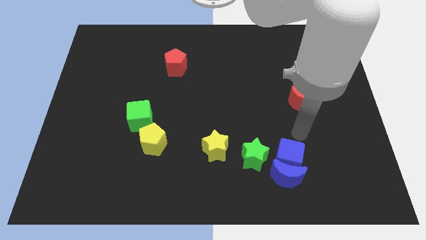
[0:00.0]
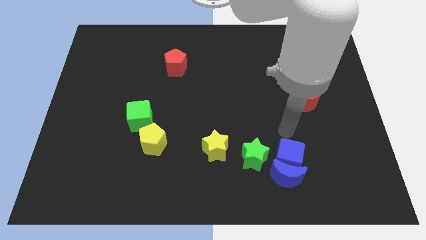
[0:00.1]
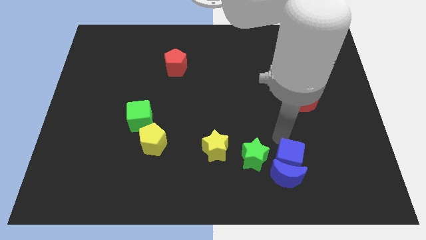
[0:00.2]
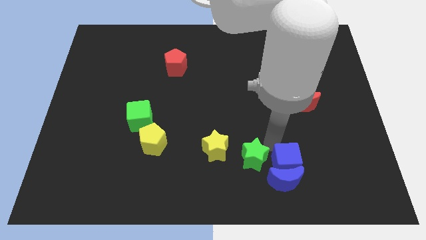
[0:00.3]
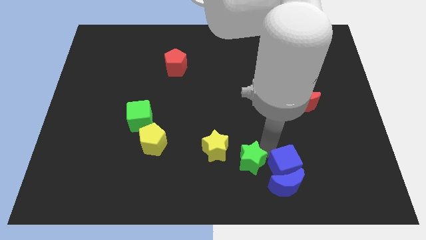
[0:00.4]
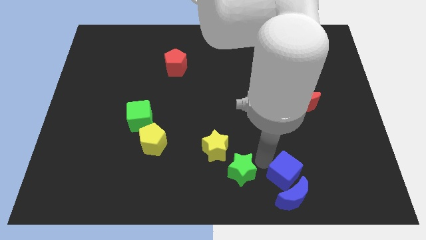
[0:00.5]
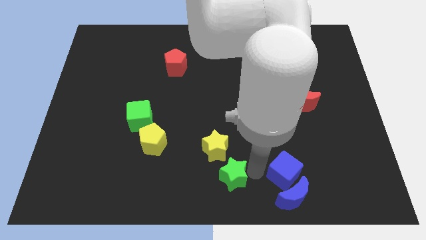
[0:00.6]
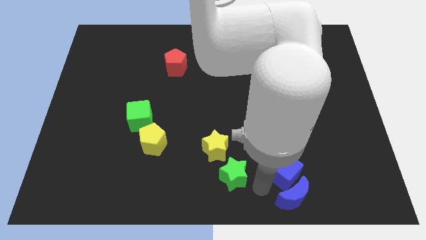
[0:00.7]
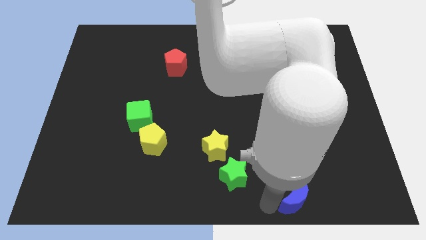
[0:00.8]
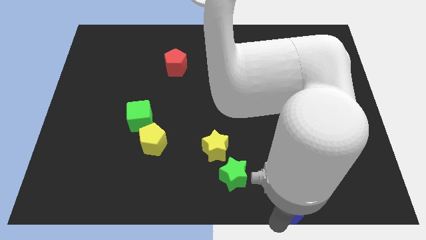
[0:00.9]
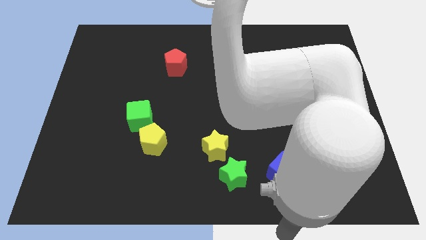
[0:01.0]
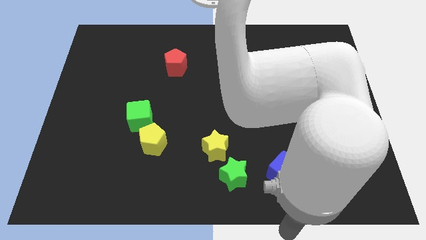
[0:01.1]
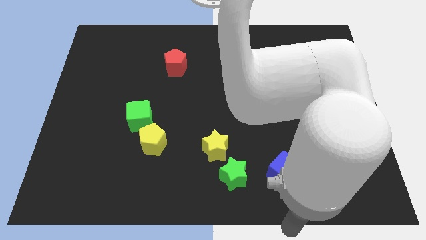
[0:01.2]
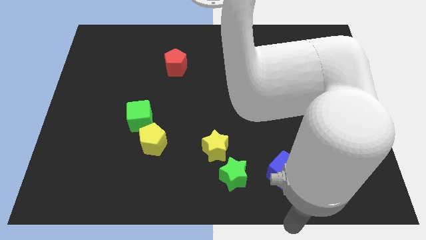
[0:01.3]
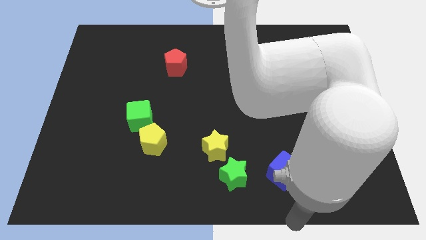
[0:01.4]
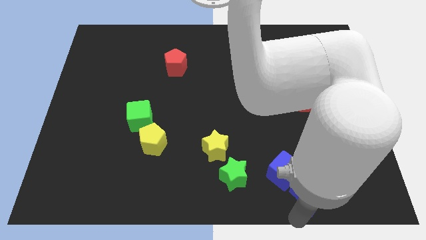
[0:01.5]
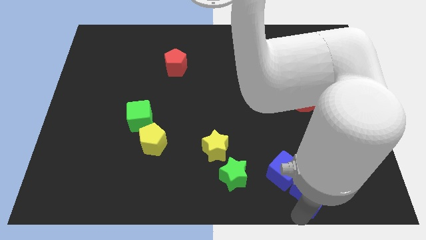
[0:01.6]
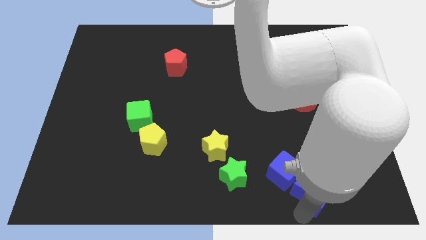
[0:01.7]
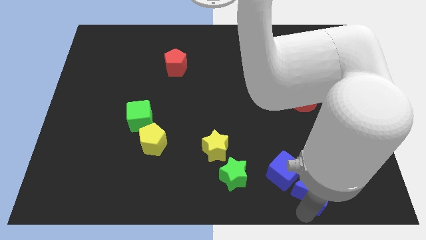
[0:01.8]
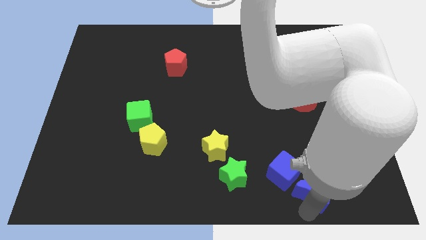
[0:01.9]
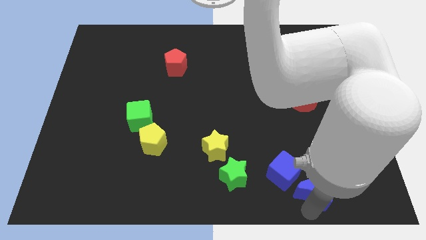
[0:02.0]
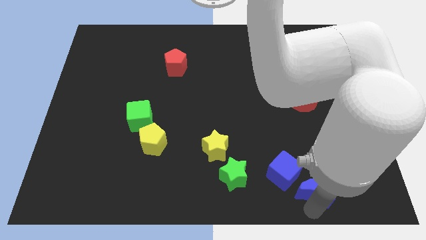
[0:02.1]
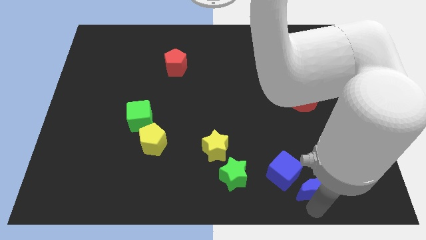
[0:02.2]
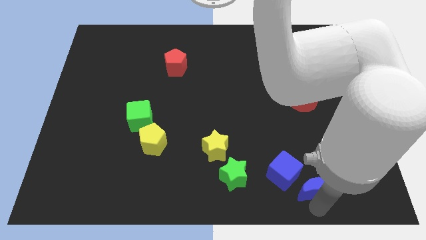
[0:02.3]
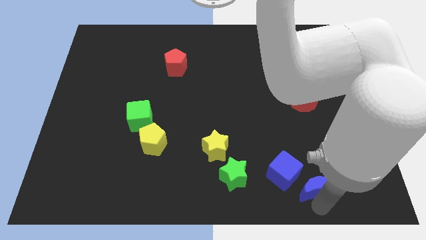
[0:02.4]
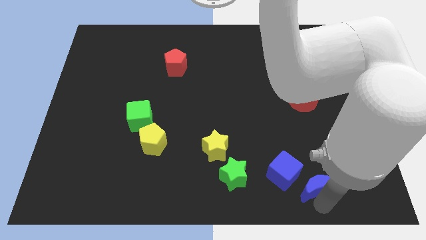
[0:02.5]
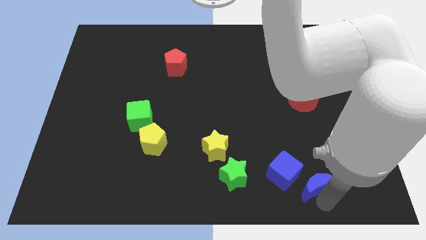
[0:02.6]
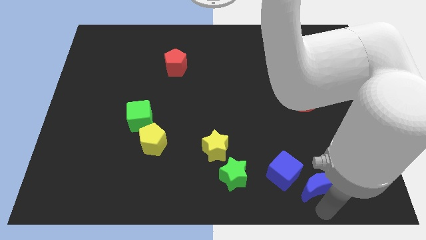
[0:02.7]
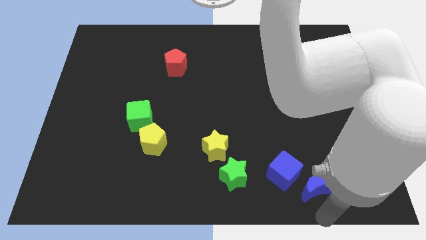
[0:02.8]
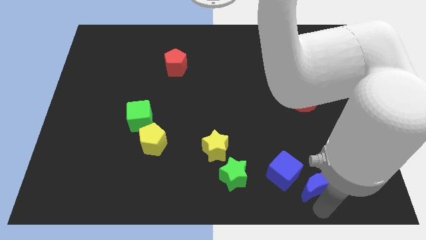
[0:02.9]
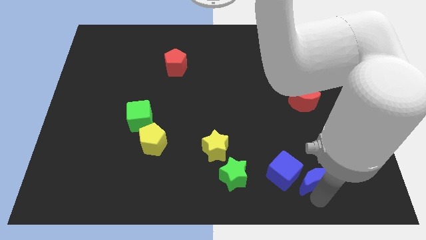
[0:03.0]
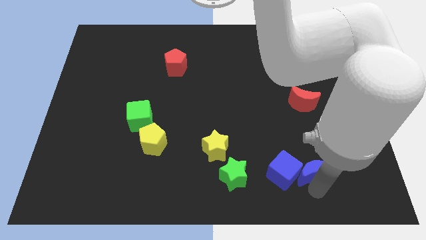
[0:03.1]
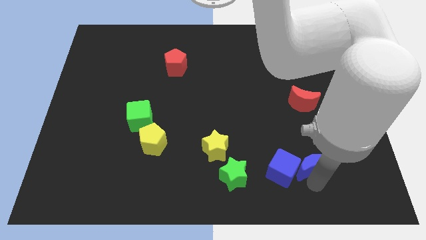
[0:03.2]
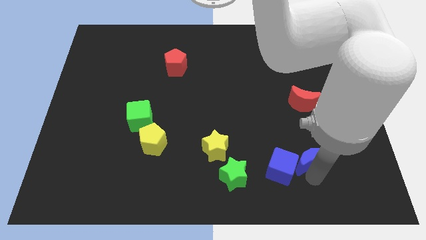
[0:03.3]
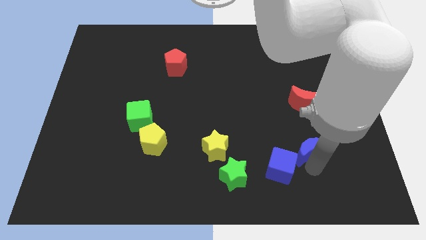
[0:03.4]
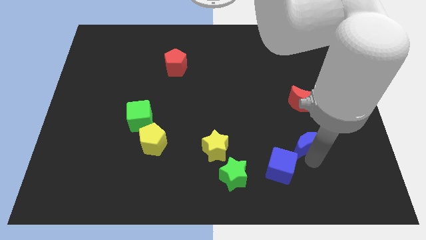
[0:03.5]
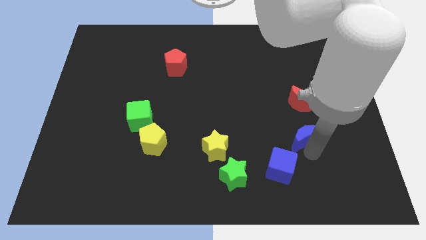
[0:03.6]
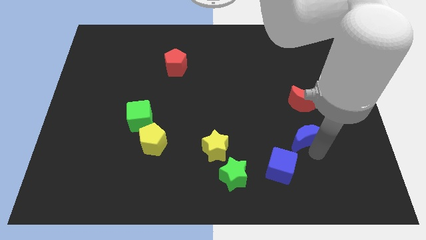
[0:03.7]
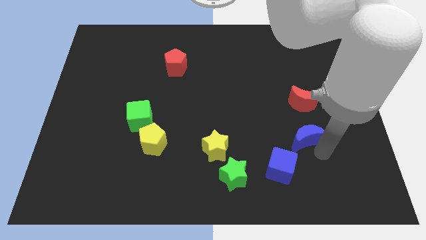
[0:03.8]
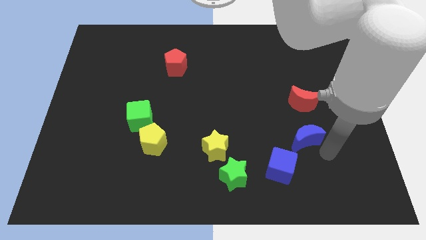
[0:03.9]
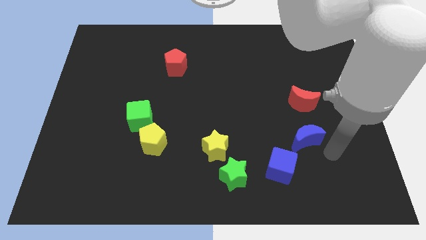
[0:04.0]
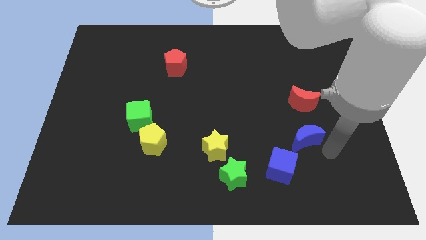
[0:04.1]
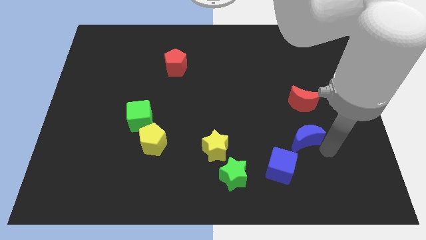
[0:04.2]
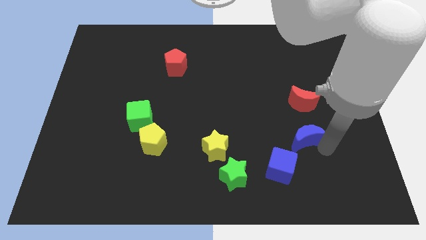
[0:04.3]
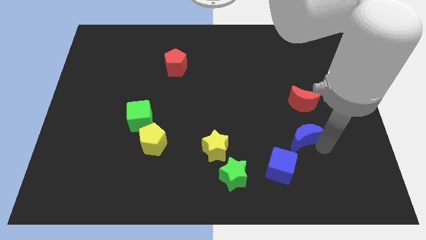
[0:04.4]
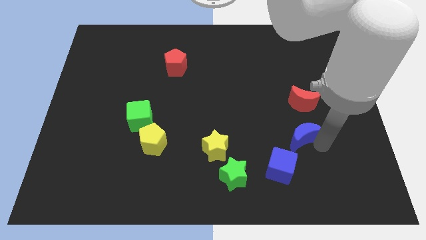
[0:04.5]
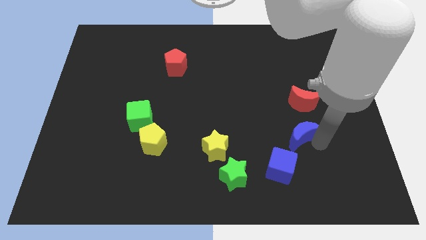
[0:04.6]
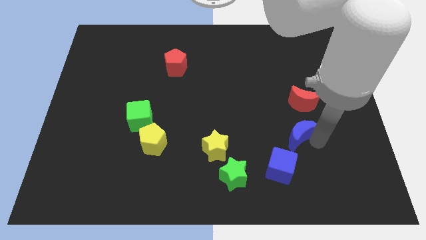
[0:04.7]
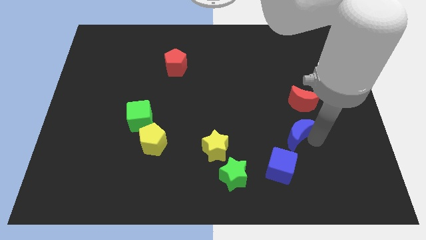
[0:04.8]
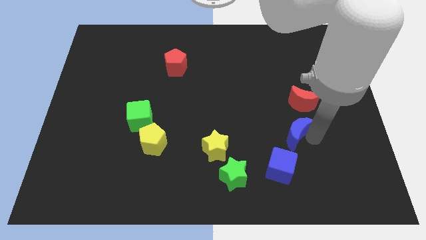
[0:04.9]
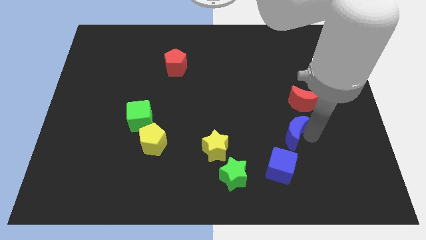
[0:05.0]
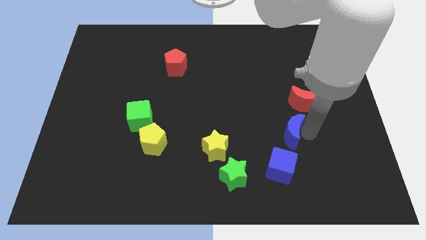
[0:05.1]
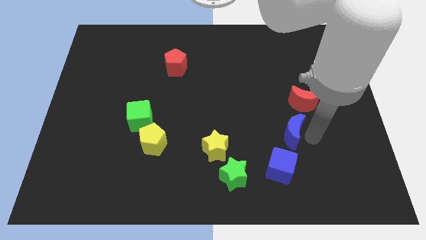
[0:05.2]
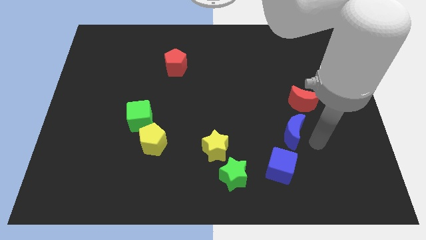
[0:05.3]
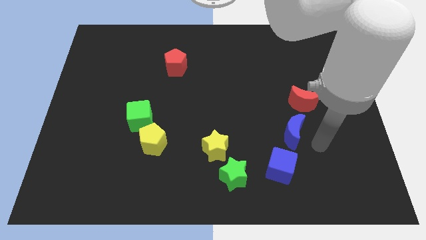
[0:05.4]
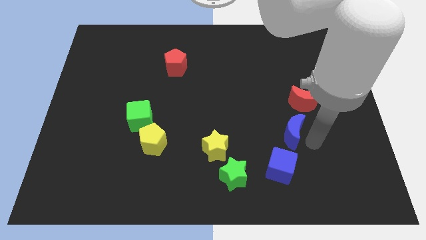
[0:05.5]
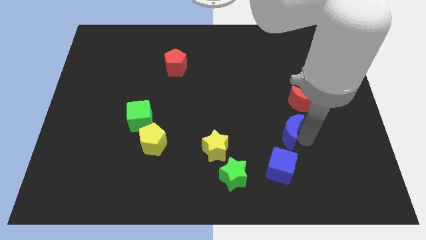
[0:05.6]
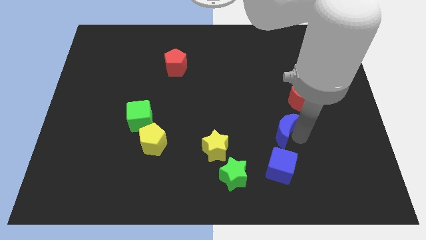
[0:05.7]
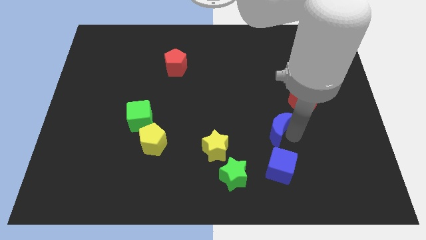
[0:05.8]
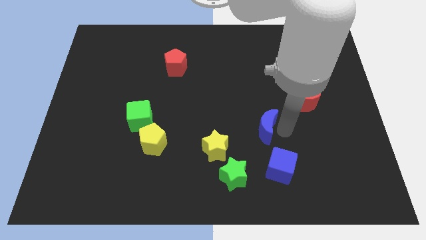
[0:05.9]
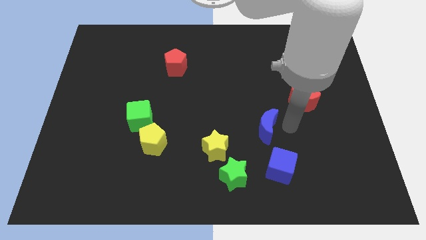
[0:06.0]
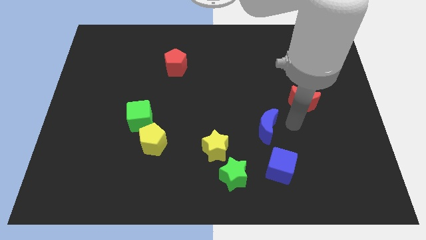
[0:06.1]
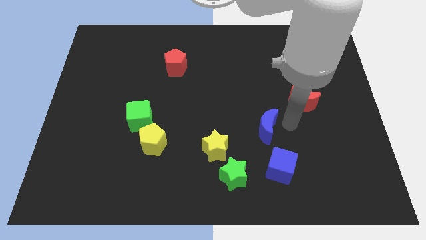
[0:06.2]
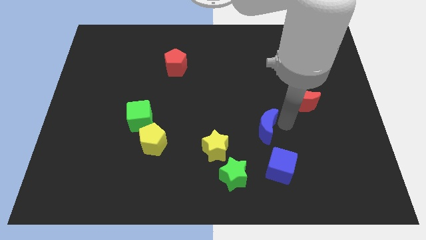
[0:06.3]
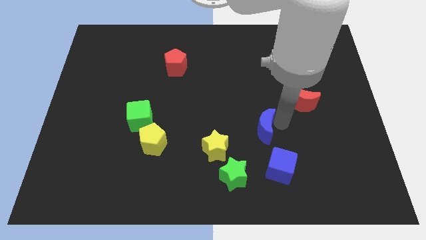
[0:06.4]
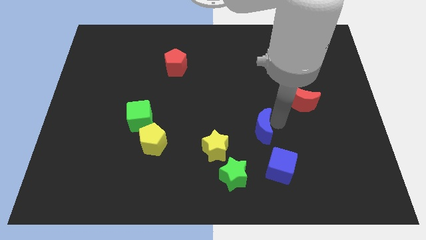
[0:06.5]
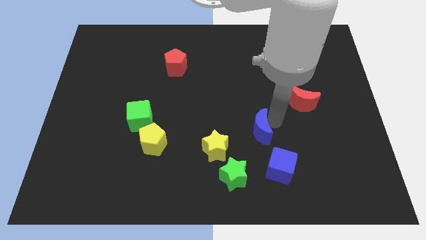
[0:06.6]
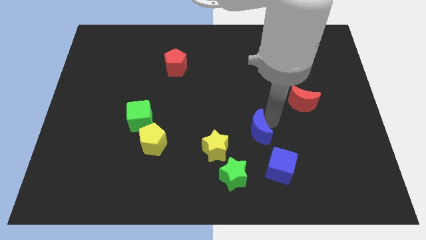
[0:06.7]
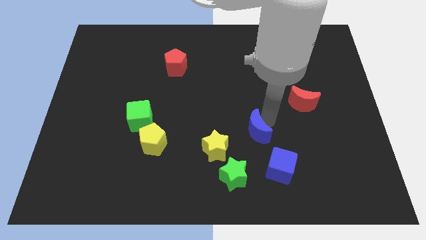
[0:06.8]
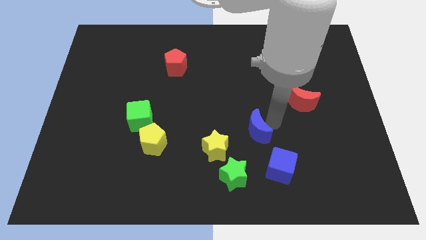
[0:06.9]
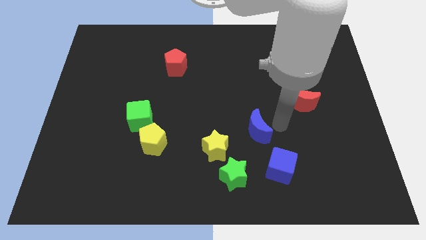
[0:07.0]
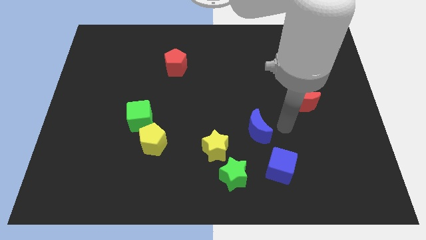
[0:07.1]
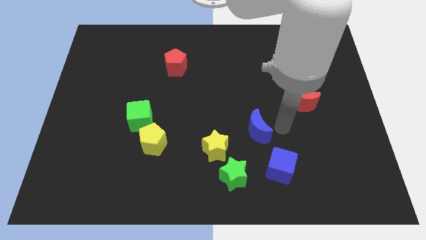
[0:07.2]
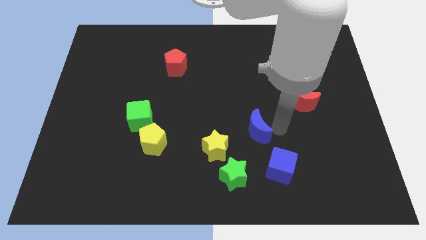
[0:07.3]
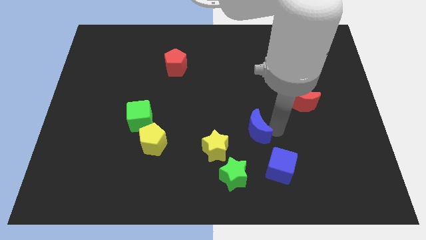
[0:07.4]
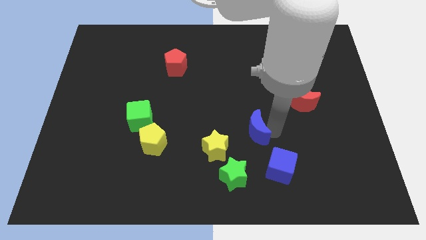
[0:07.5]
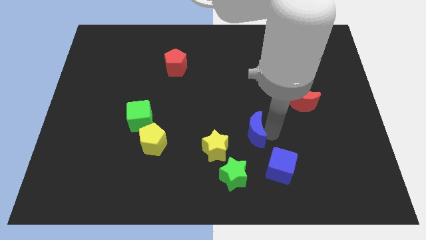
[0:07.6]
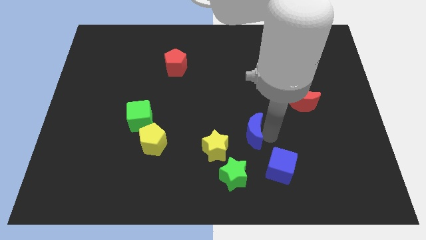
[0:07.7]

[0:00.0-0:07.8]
slide the blue moon to the top of the green star
